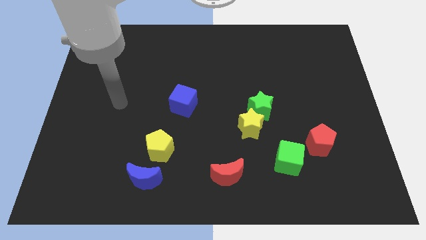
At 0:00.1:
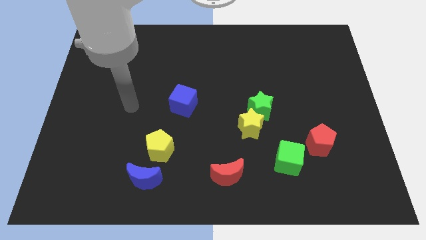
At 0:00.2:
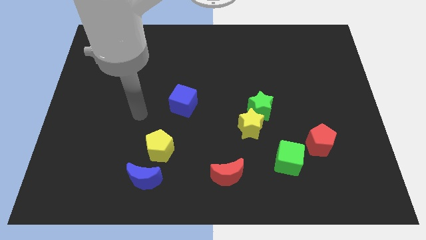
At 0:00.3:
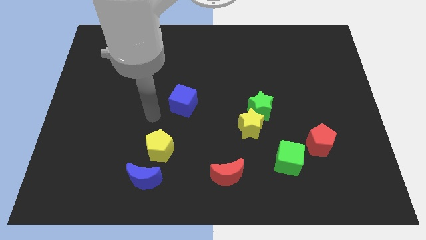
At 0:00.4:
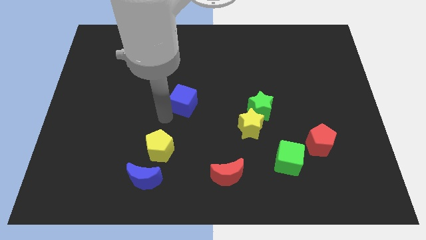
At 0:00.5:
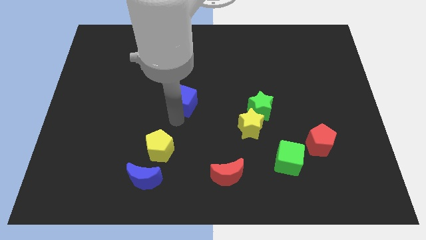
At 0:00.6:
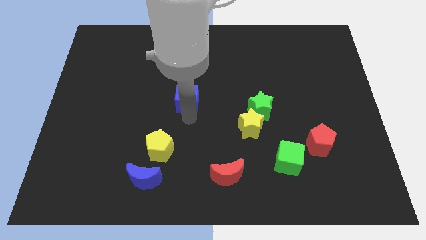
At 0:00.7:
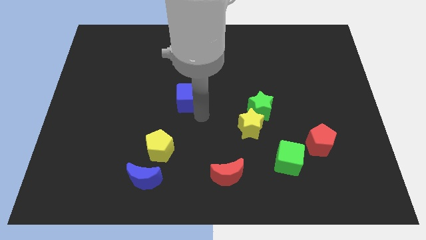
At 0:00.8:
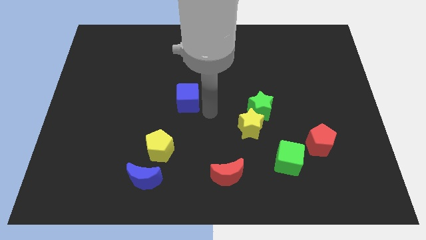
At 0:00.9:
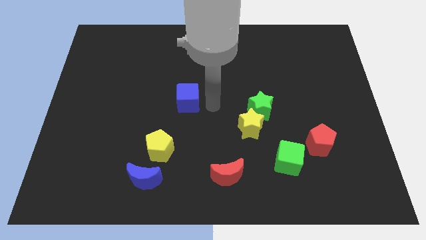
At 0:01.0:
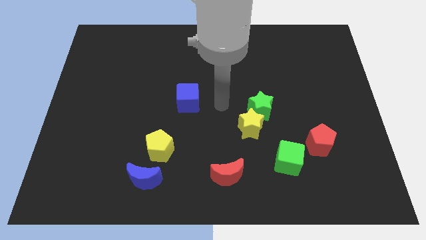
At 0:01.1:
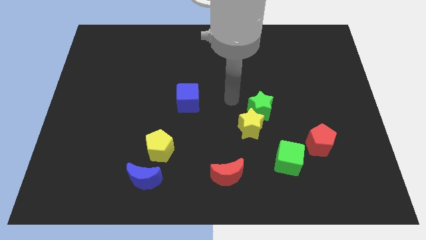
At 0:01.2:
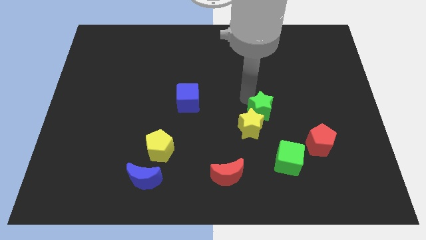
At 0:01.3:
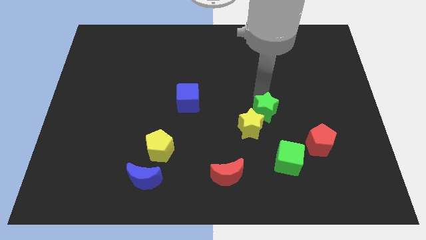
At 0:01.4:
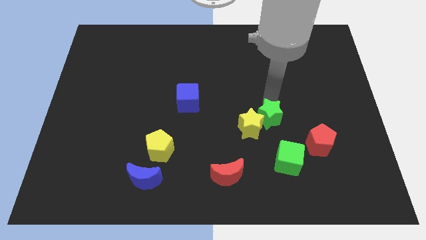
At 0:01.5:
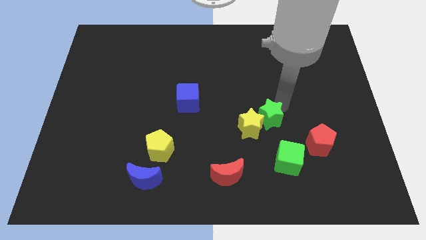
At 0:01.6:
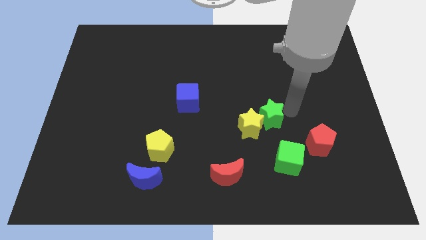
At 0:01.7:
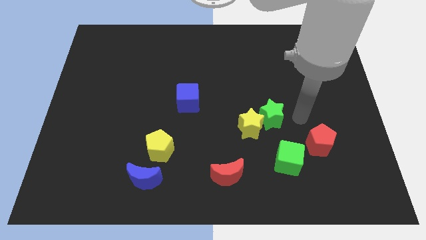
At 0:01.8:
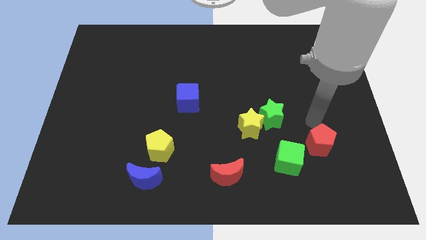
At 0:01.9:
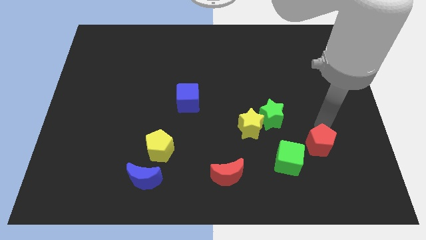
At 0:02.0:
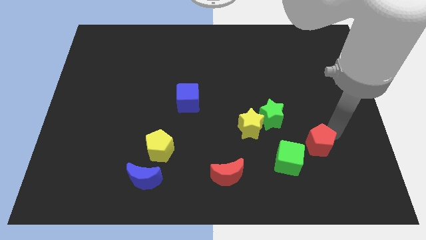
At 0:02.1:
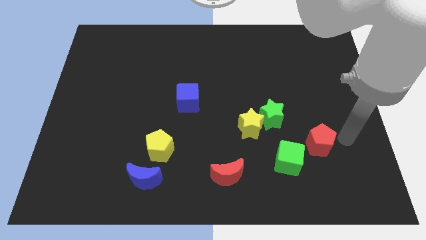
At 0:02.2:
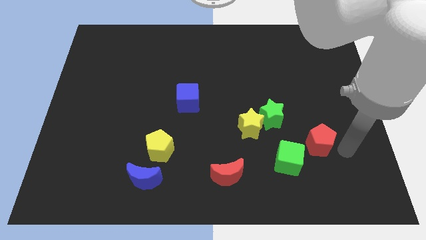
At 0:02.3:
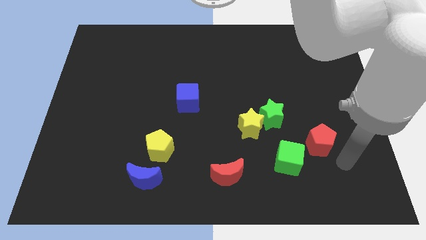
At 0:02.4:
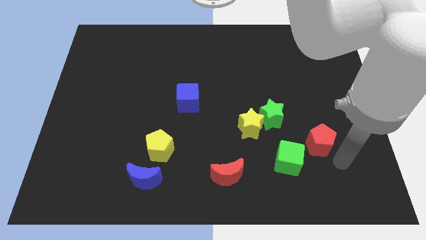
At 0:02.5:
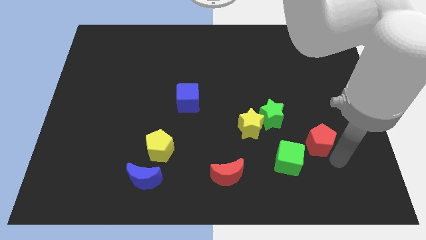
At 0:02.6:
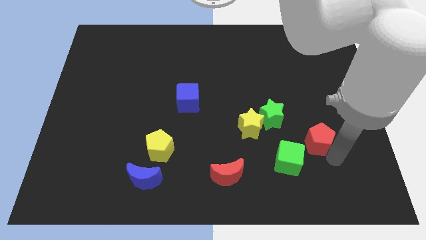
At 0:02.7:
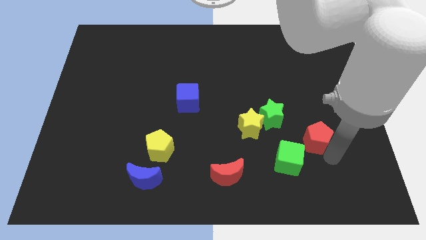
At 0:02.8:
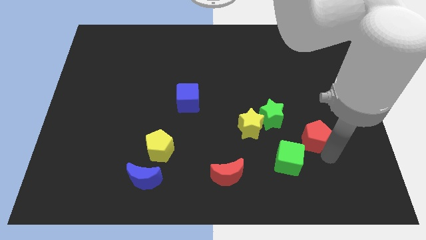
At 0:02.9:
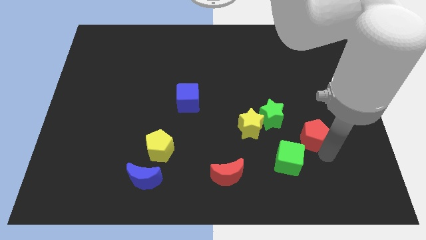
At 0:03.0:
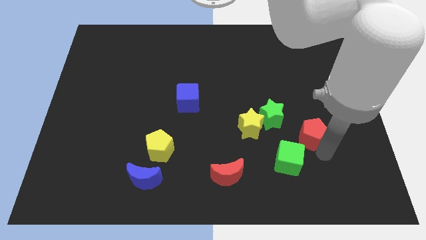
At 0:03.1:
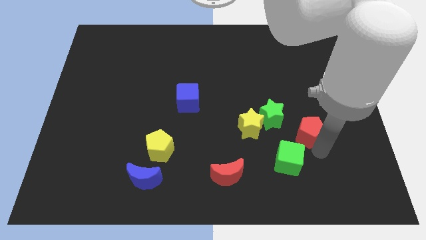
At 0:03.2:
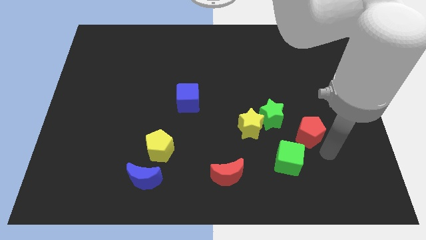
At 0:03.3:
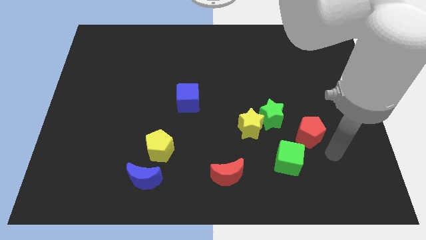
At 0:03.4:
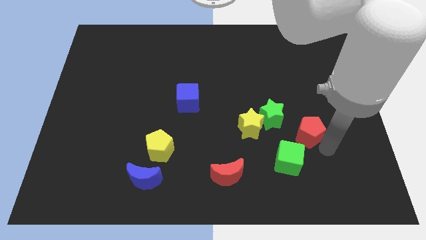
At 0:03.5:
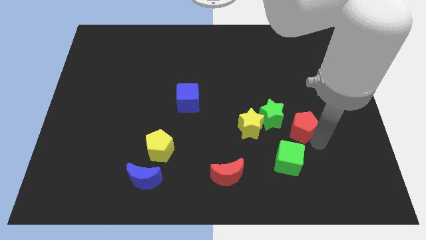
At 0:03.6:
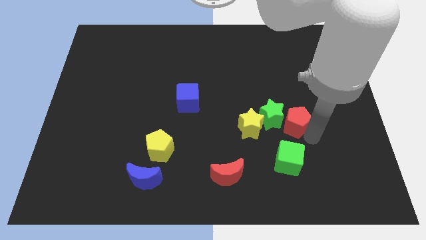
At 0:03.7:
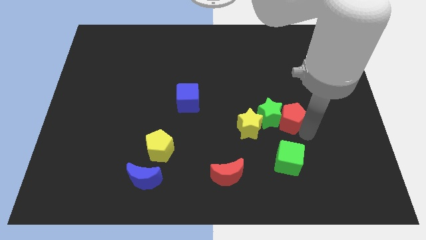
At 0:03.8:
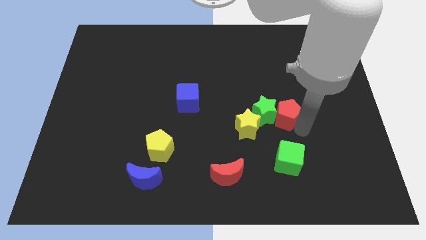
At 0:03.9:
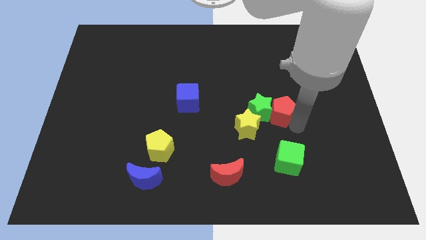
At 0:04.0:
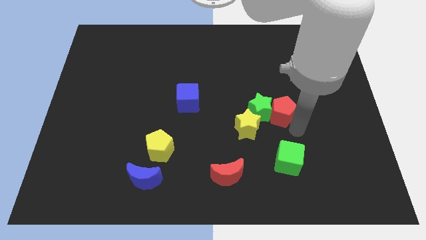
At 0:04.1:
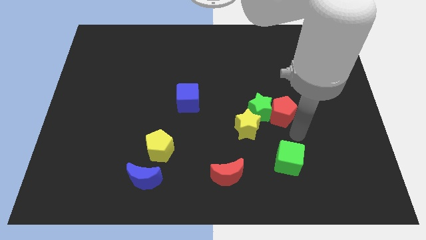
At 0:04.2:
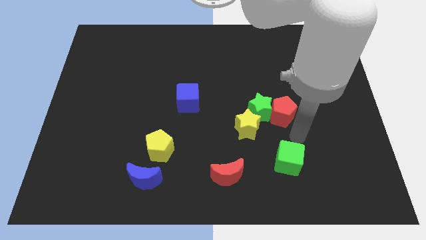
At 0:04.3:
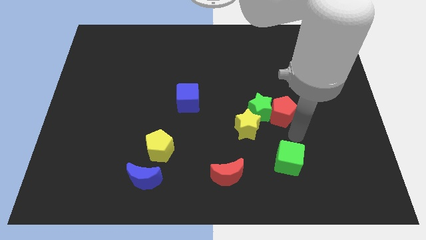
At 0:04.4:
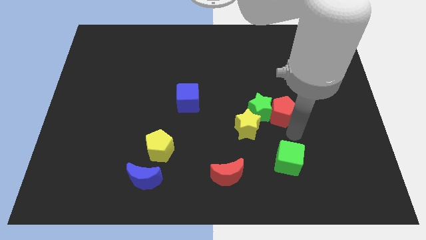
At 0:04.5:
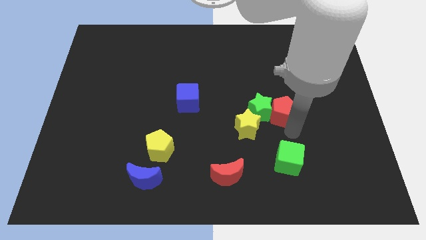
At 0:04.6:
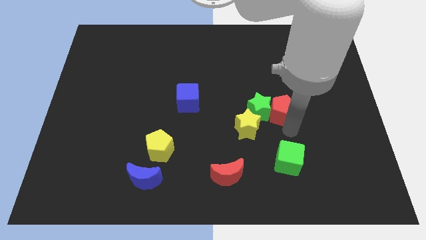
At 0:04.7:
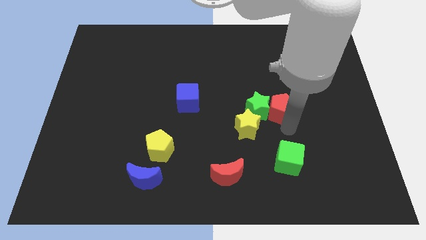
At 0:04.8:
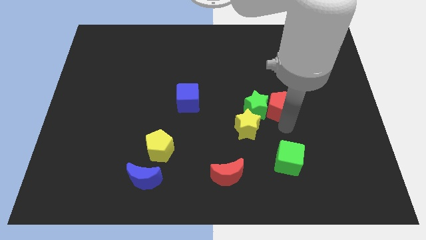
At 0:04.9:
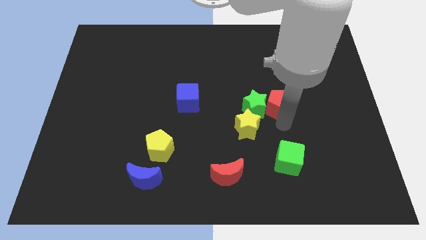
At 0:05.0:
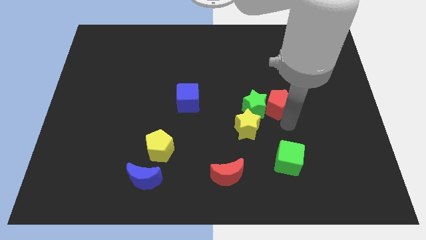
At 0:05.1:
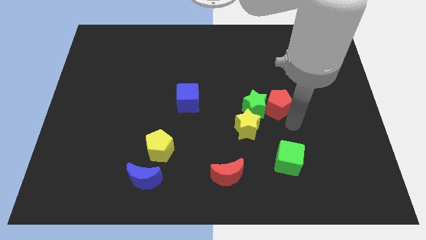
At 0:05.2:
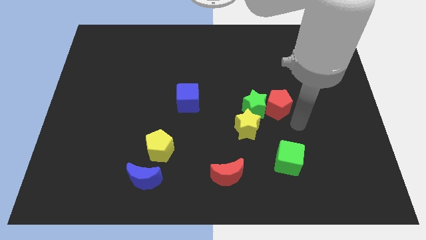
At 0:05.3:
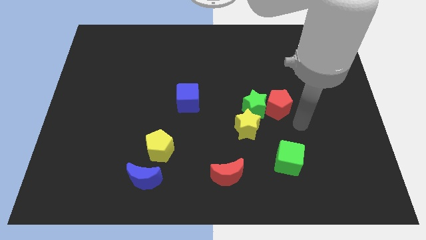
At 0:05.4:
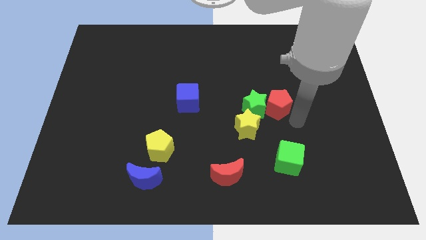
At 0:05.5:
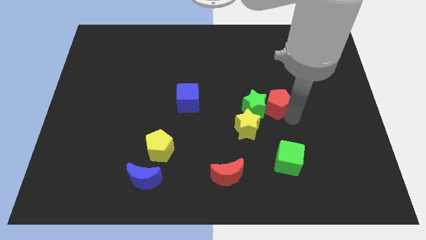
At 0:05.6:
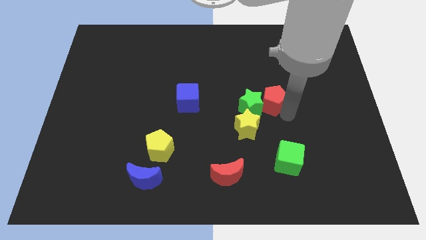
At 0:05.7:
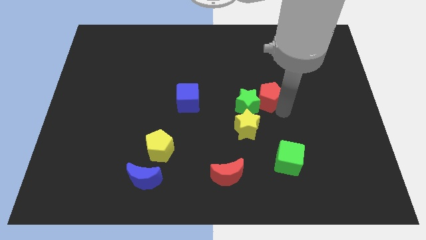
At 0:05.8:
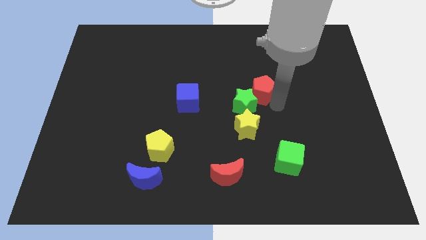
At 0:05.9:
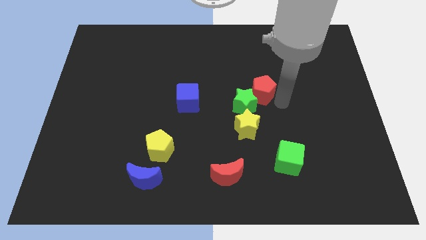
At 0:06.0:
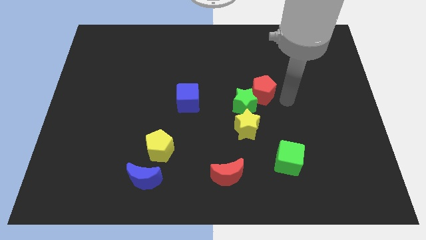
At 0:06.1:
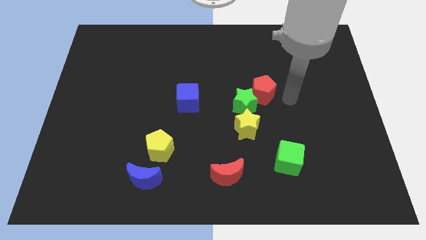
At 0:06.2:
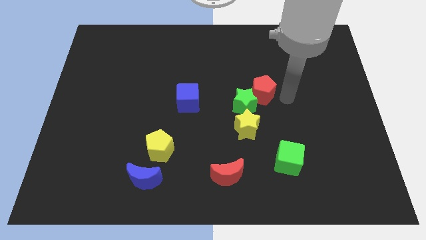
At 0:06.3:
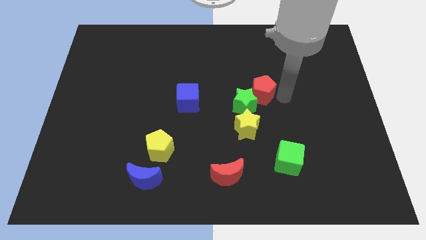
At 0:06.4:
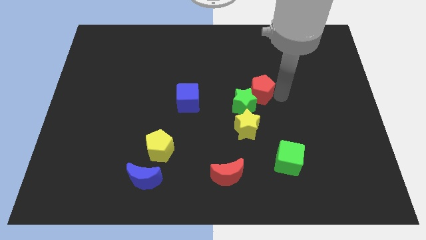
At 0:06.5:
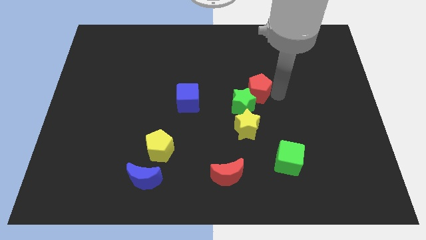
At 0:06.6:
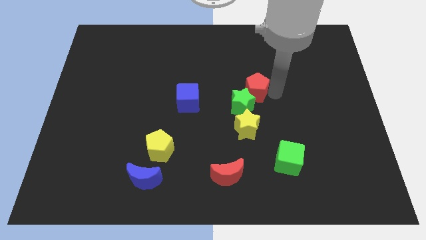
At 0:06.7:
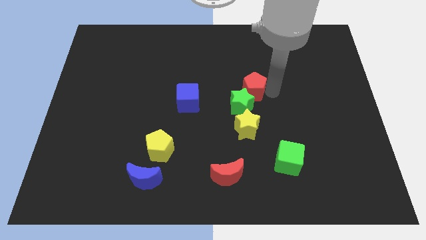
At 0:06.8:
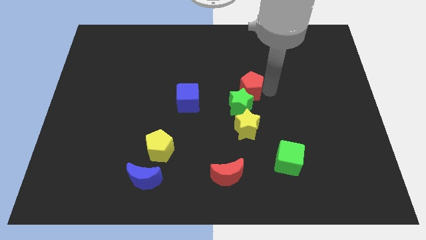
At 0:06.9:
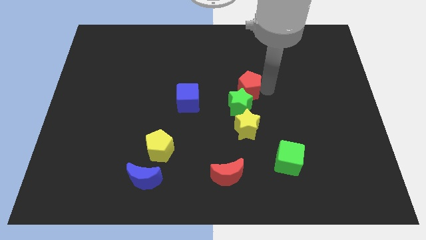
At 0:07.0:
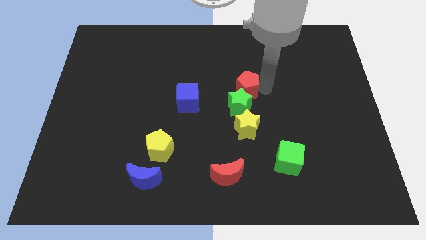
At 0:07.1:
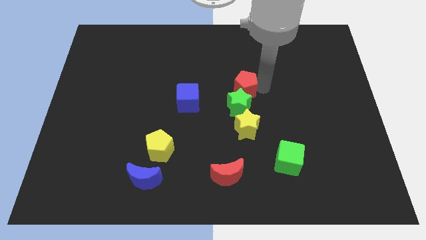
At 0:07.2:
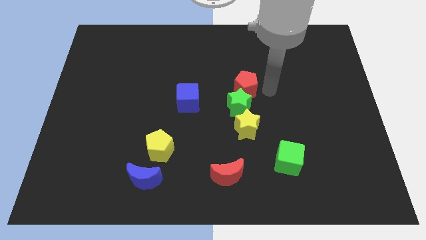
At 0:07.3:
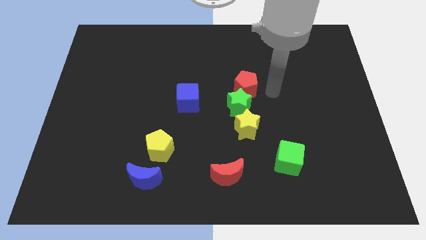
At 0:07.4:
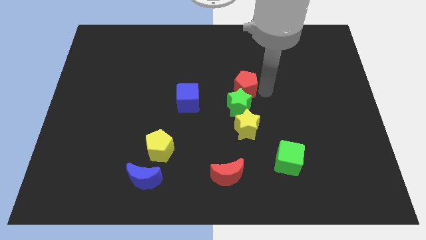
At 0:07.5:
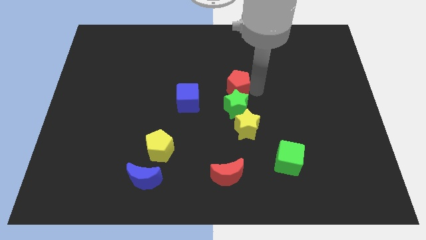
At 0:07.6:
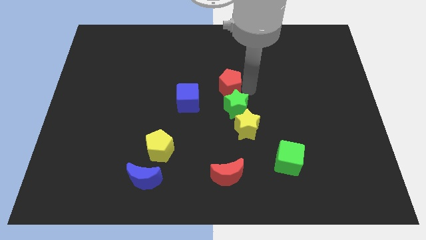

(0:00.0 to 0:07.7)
slide the red pentagon to the top right of the blue cube
